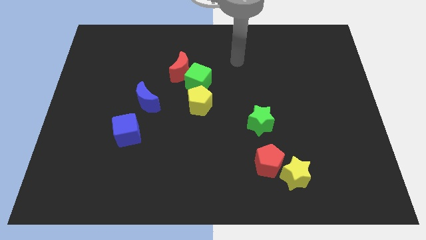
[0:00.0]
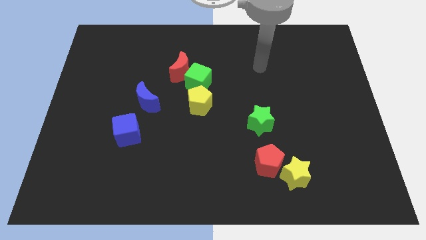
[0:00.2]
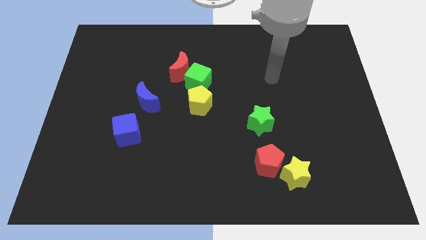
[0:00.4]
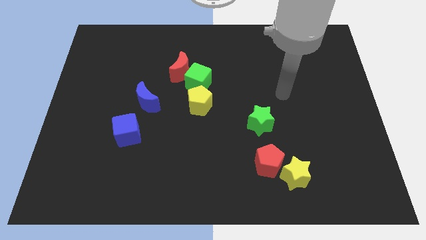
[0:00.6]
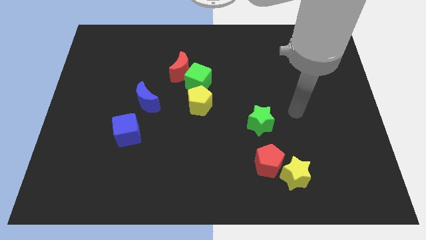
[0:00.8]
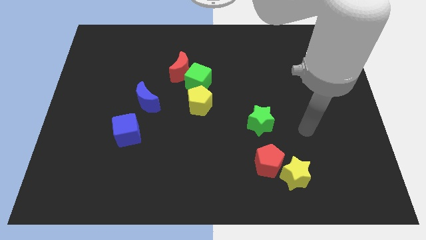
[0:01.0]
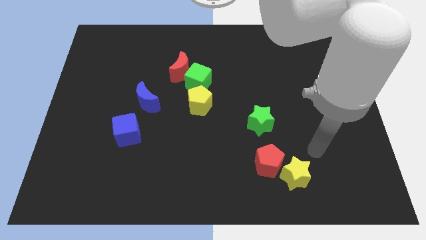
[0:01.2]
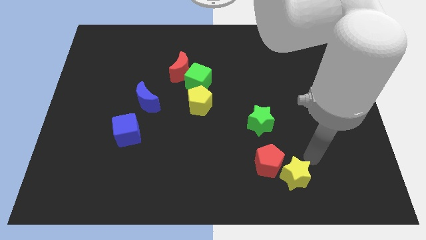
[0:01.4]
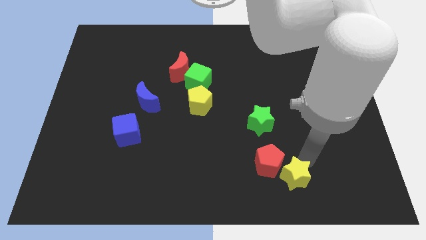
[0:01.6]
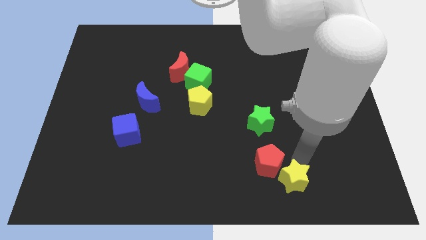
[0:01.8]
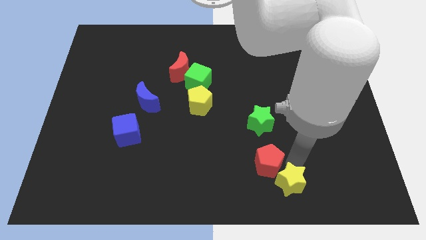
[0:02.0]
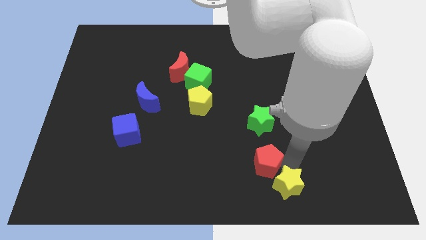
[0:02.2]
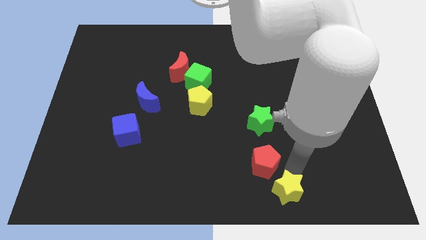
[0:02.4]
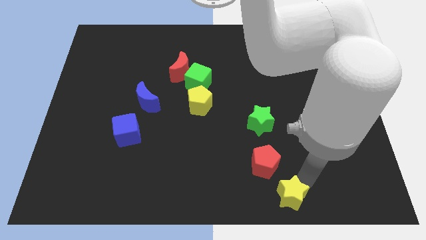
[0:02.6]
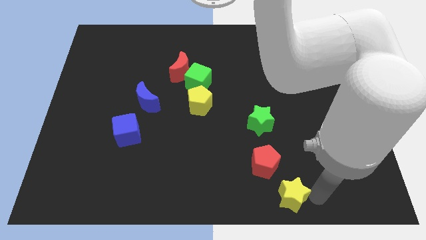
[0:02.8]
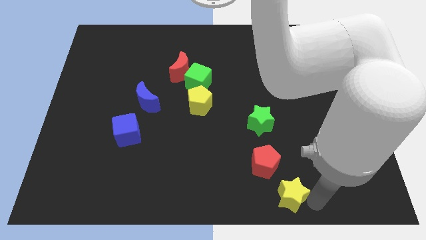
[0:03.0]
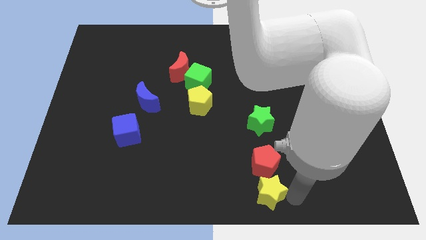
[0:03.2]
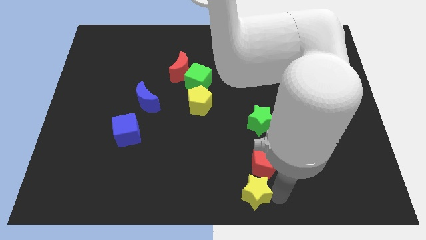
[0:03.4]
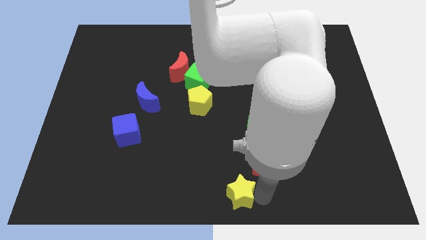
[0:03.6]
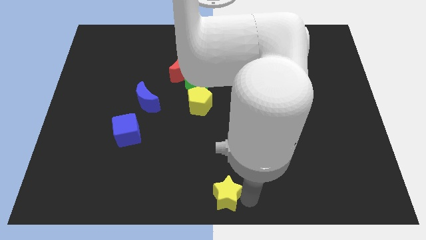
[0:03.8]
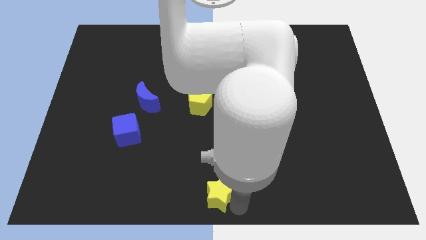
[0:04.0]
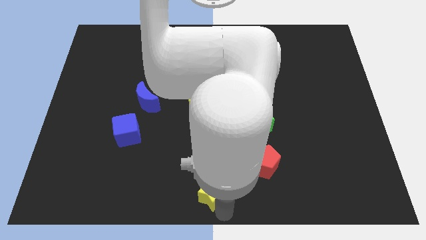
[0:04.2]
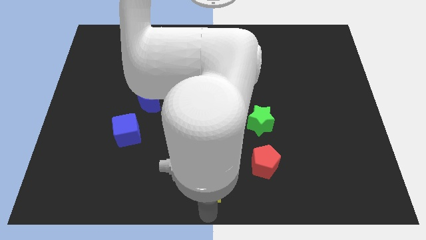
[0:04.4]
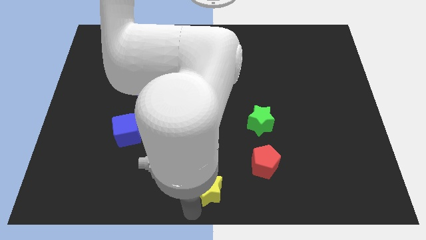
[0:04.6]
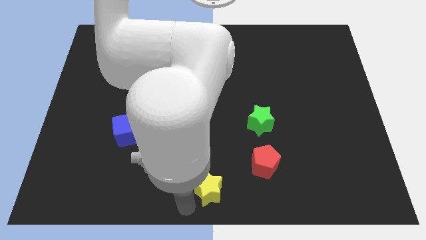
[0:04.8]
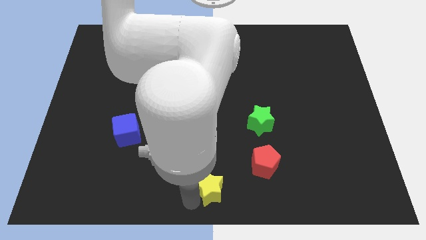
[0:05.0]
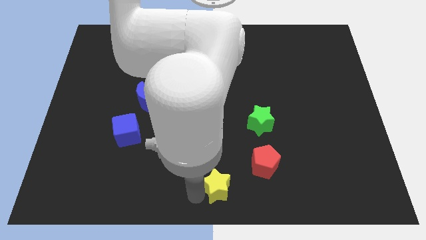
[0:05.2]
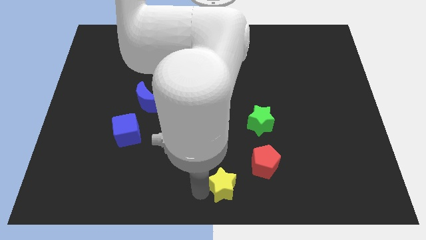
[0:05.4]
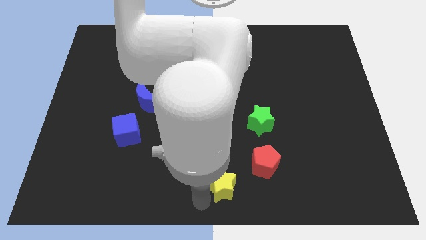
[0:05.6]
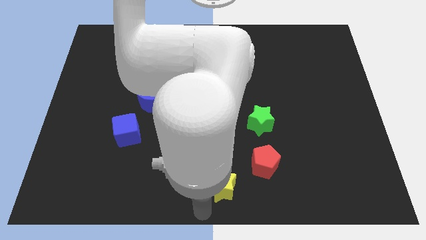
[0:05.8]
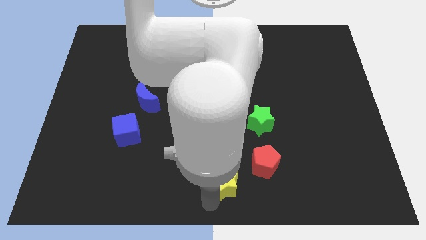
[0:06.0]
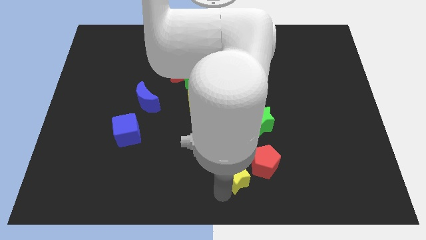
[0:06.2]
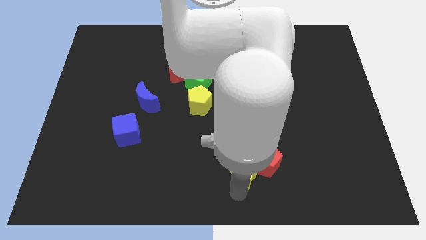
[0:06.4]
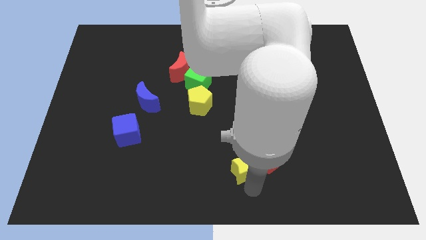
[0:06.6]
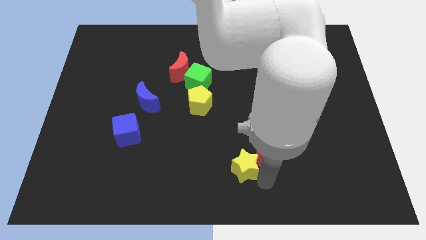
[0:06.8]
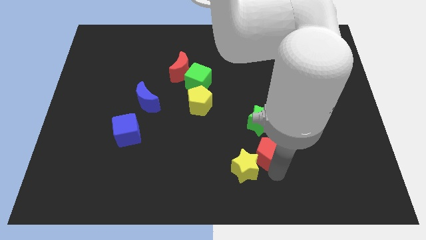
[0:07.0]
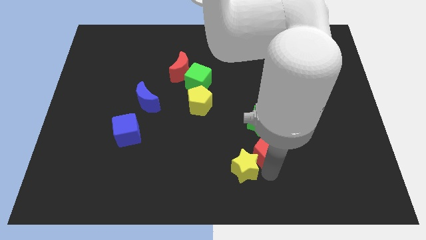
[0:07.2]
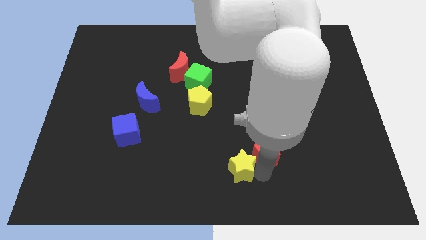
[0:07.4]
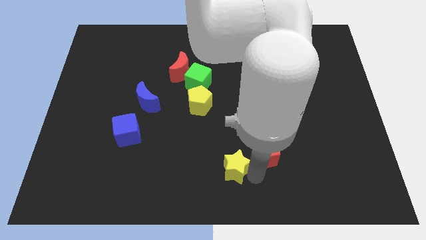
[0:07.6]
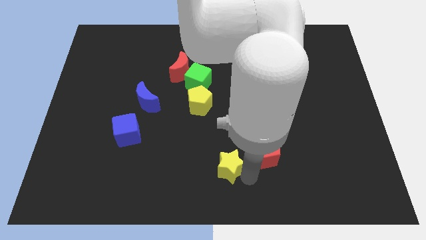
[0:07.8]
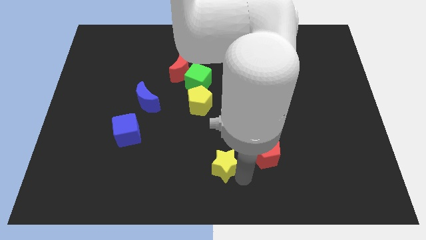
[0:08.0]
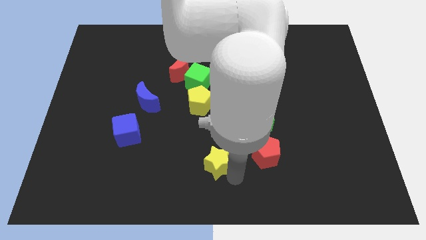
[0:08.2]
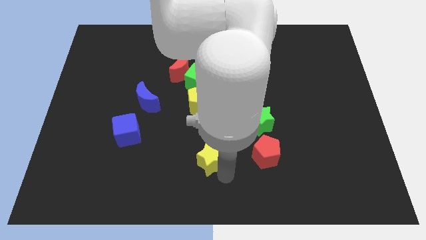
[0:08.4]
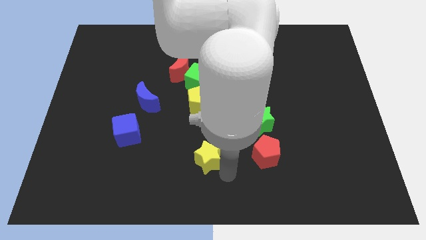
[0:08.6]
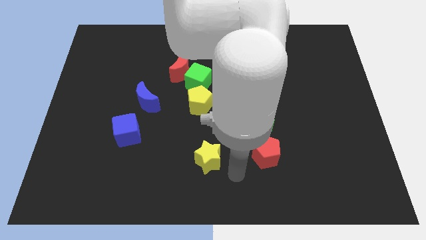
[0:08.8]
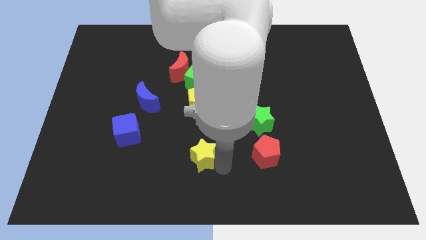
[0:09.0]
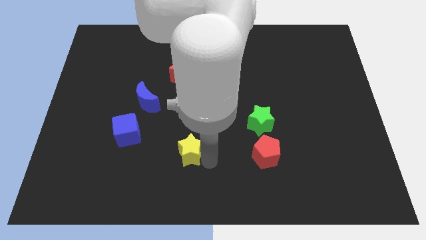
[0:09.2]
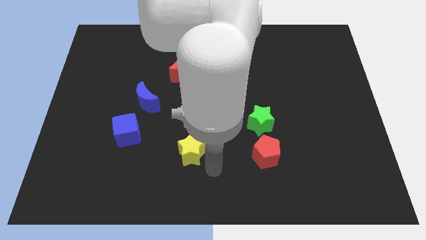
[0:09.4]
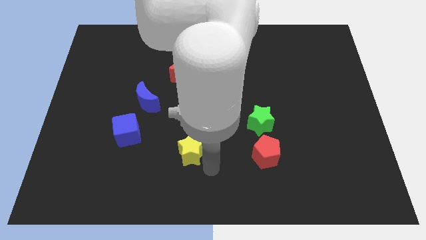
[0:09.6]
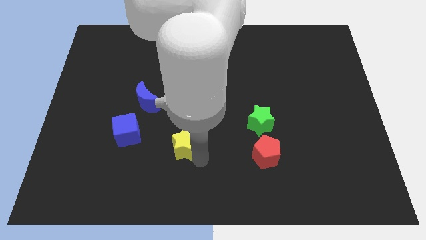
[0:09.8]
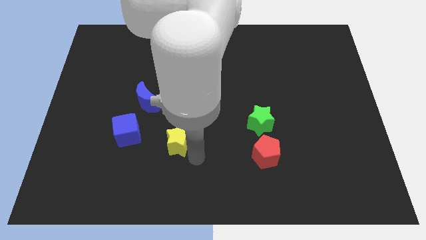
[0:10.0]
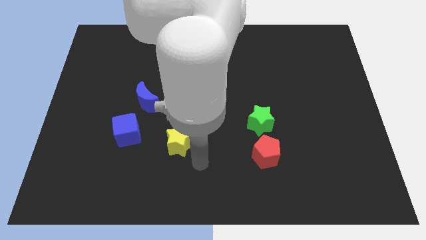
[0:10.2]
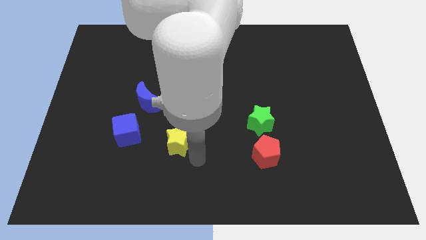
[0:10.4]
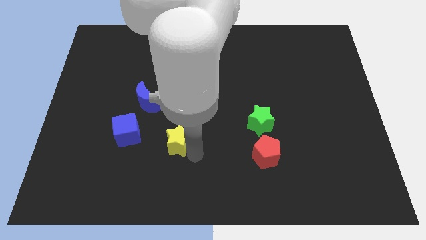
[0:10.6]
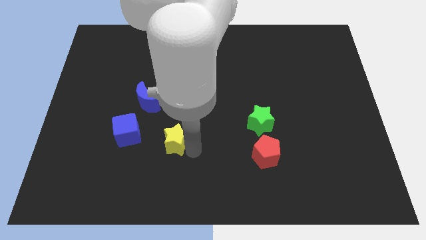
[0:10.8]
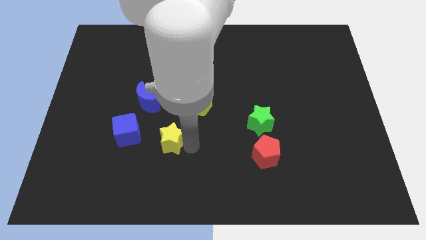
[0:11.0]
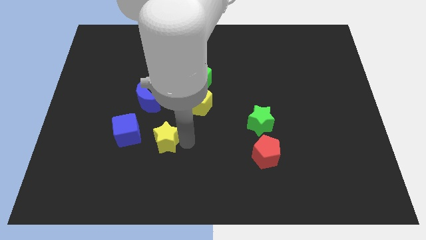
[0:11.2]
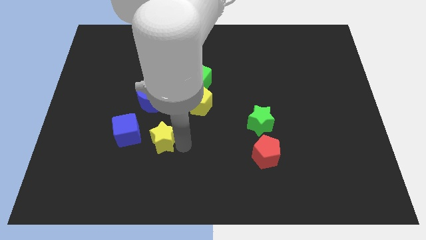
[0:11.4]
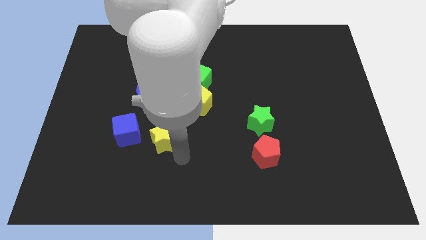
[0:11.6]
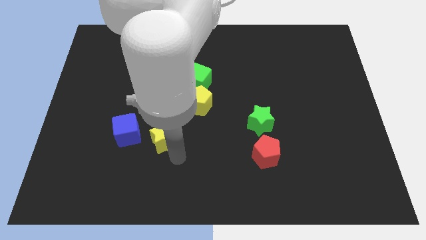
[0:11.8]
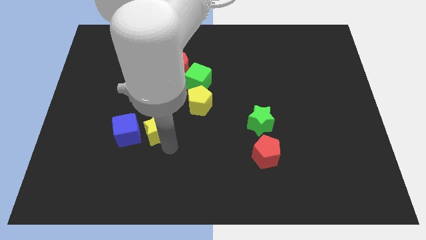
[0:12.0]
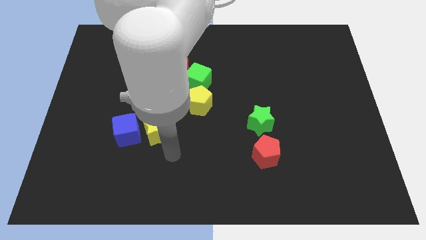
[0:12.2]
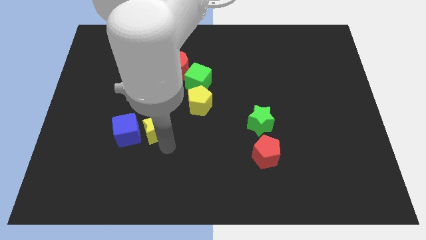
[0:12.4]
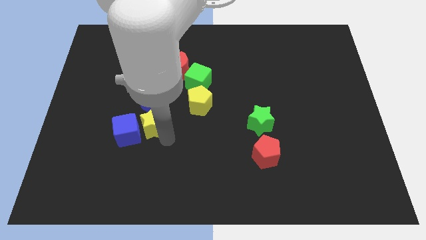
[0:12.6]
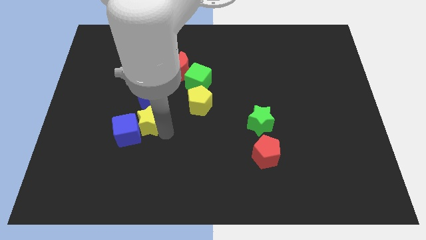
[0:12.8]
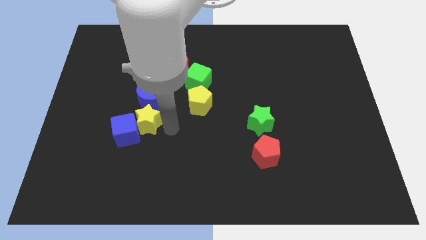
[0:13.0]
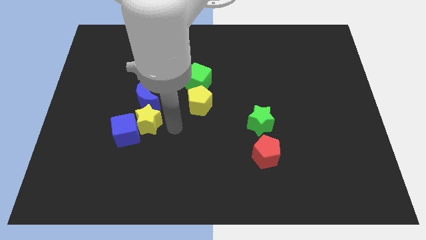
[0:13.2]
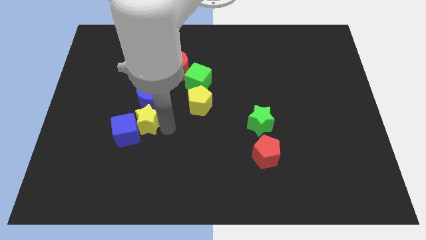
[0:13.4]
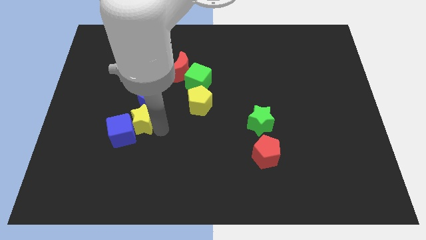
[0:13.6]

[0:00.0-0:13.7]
push the yellow star diagonally down and to the left of the blue moon

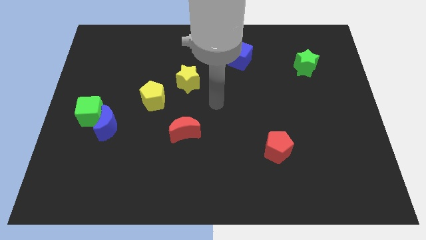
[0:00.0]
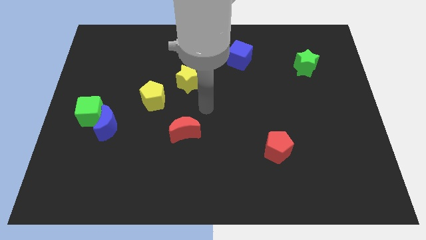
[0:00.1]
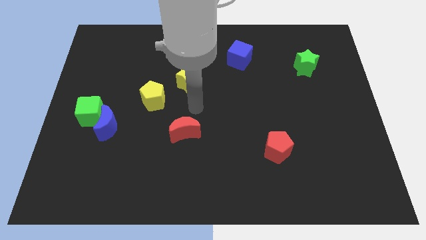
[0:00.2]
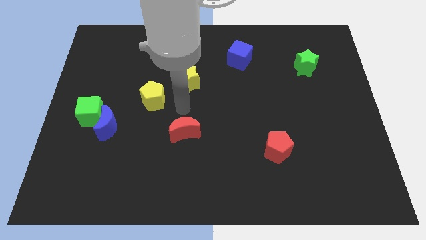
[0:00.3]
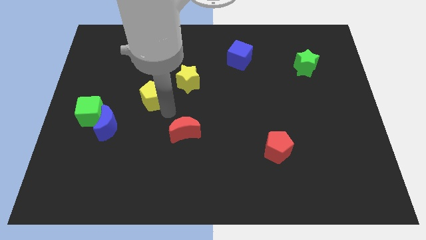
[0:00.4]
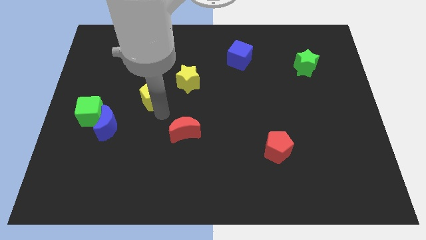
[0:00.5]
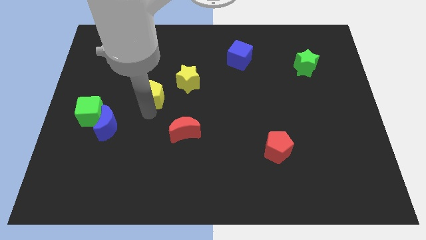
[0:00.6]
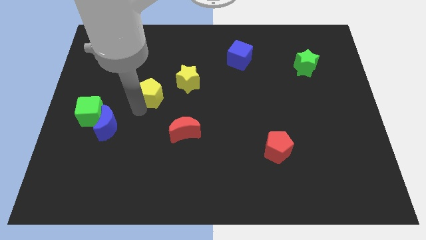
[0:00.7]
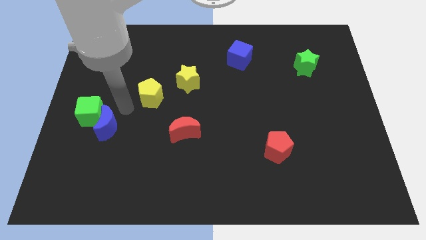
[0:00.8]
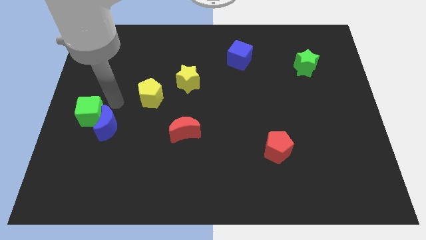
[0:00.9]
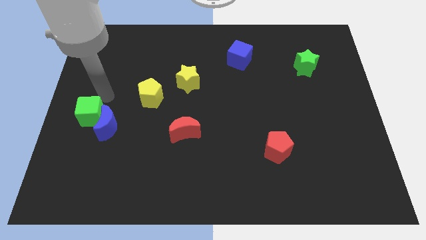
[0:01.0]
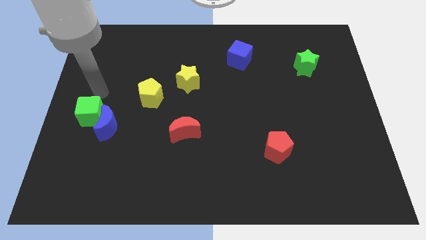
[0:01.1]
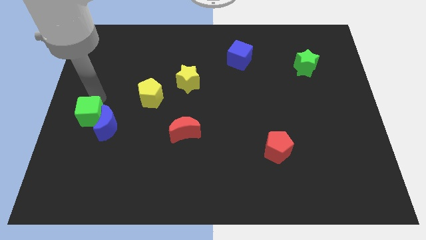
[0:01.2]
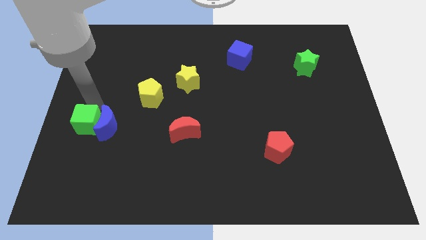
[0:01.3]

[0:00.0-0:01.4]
put the green cube to the bottom left of the blue moon
